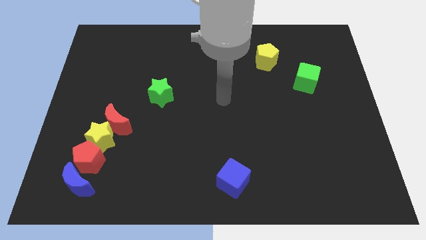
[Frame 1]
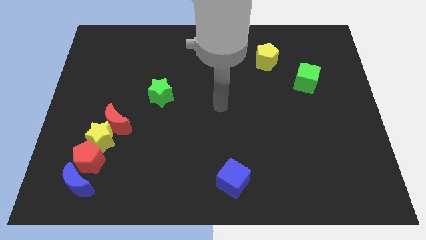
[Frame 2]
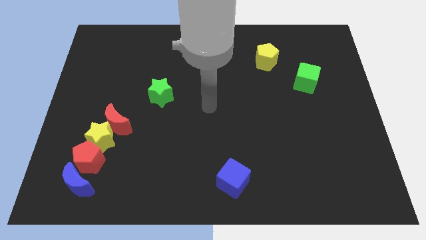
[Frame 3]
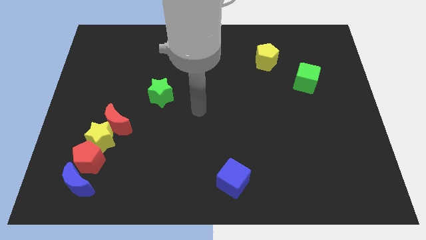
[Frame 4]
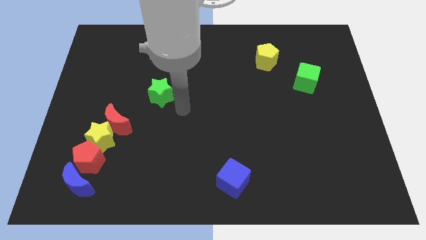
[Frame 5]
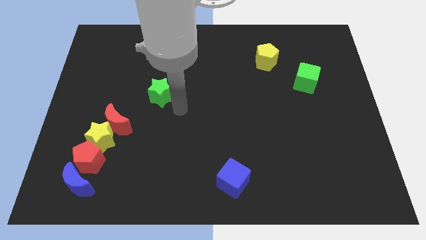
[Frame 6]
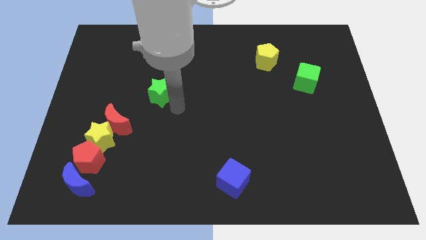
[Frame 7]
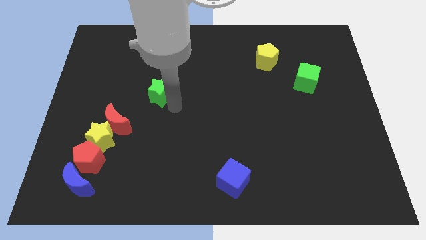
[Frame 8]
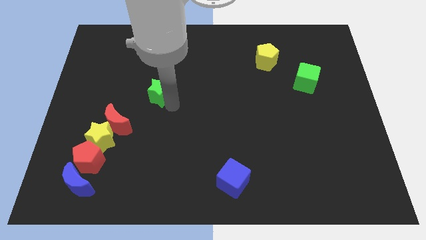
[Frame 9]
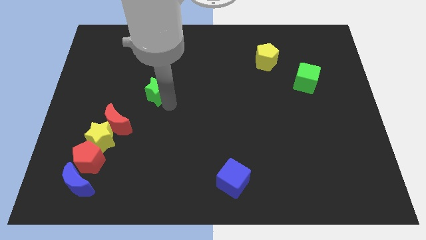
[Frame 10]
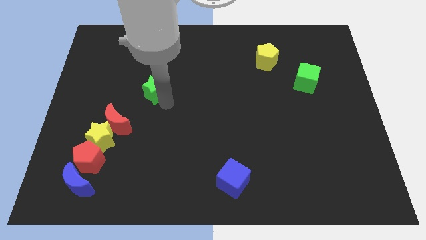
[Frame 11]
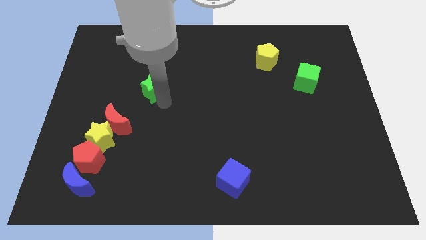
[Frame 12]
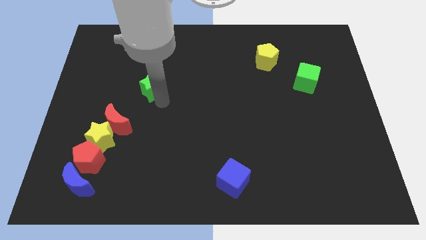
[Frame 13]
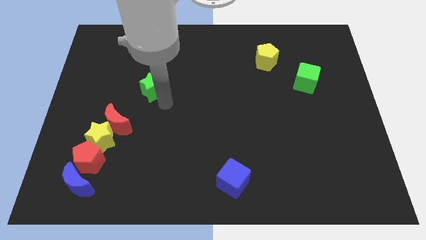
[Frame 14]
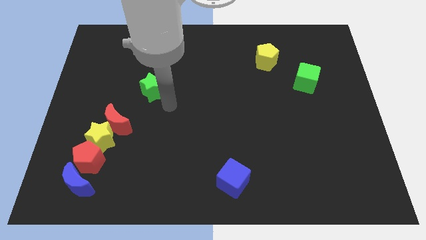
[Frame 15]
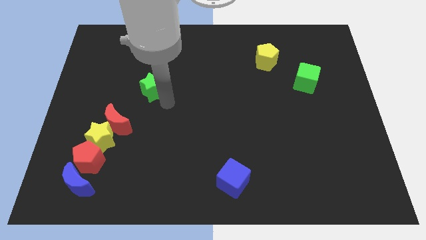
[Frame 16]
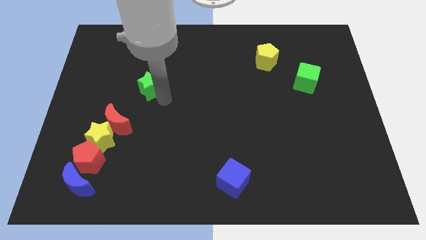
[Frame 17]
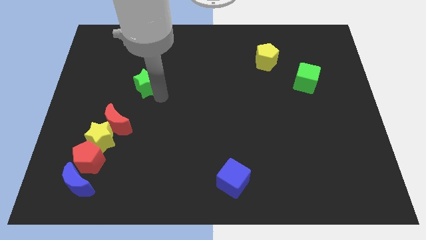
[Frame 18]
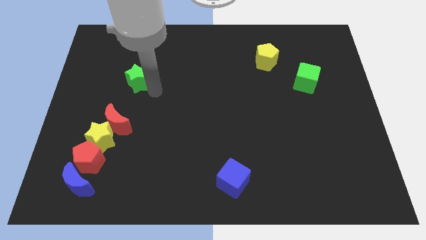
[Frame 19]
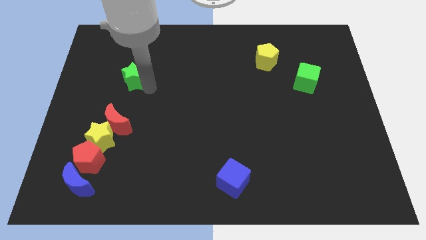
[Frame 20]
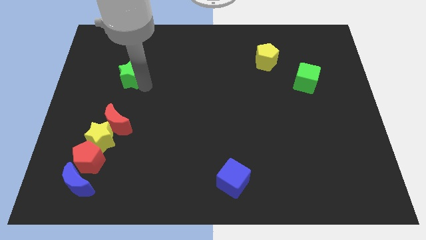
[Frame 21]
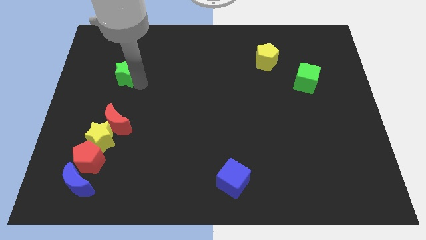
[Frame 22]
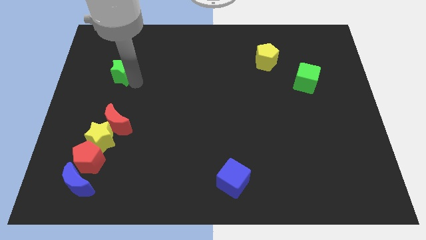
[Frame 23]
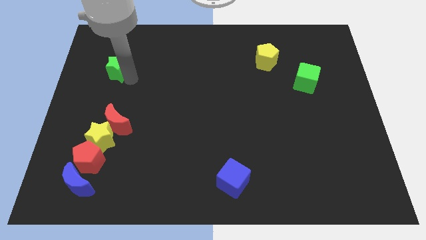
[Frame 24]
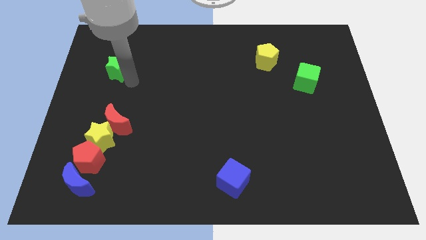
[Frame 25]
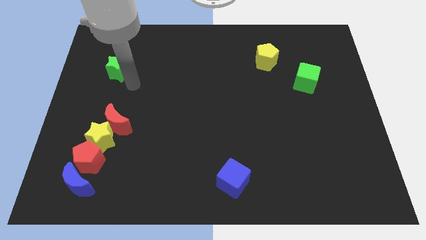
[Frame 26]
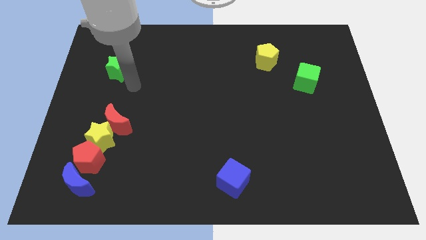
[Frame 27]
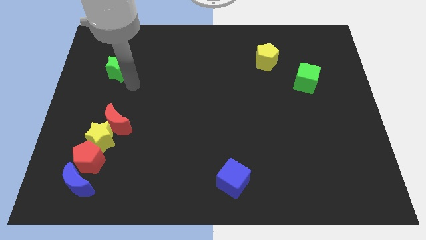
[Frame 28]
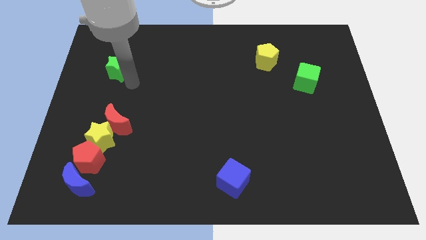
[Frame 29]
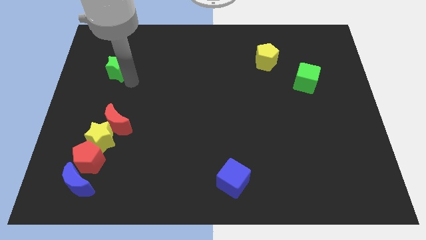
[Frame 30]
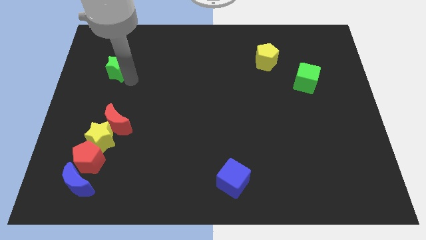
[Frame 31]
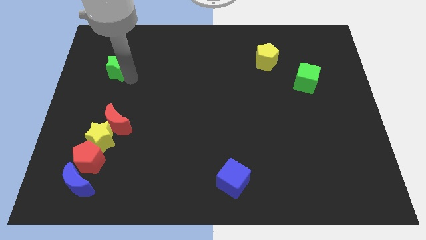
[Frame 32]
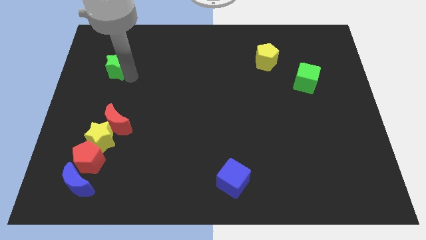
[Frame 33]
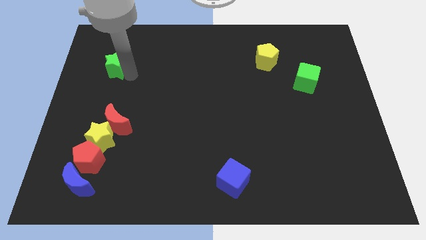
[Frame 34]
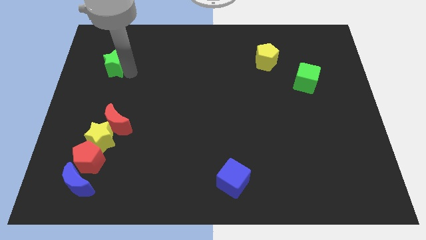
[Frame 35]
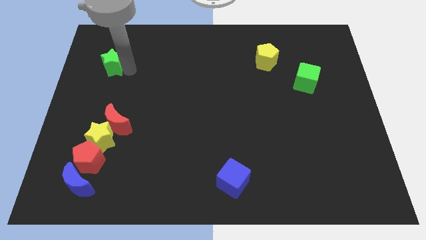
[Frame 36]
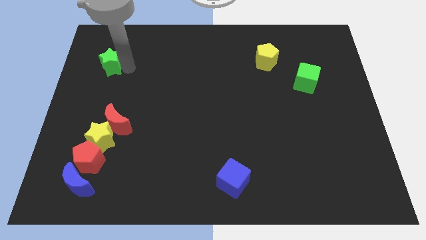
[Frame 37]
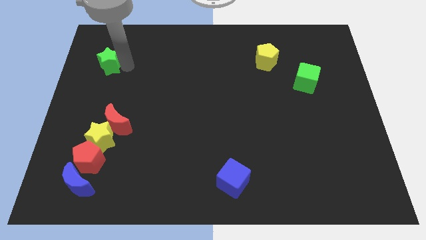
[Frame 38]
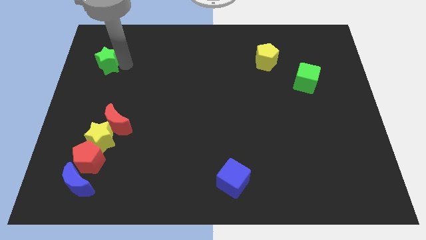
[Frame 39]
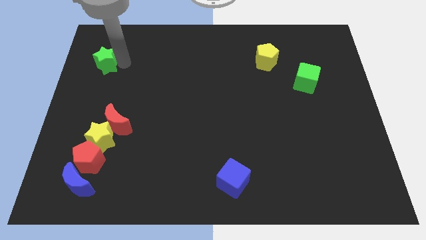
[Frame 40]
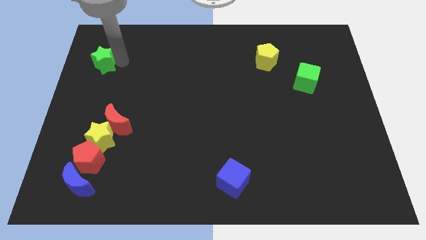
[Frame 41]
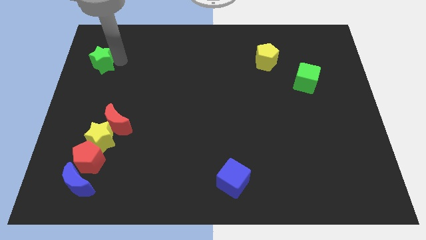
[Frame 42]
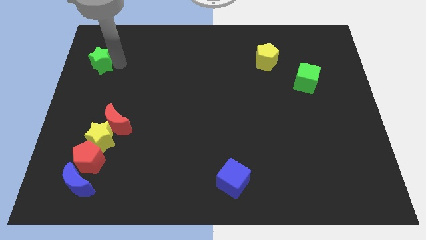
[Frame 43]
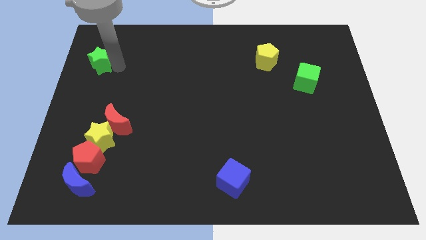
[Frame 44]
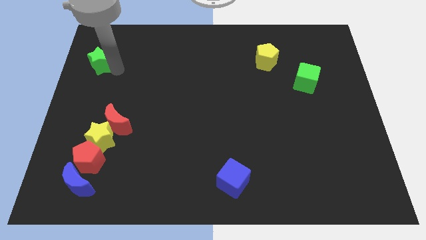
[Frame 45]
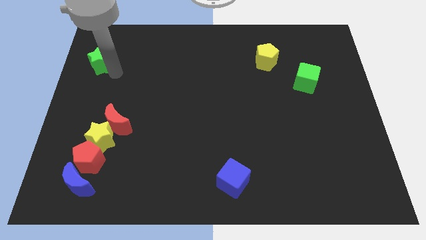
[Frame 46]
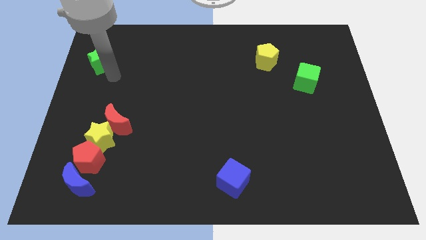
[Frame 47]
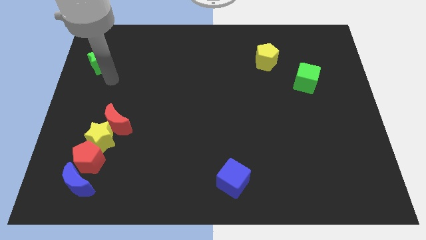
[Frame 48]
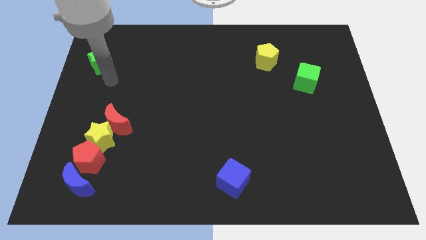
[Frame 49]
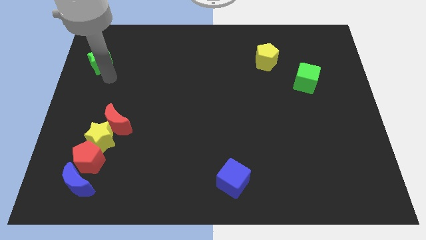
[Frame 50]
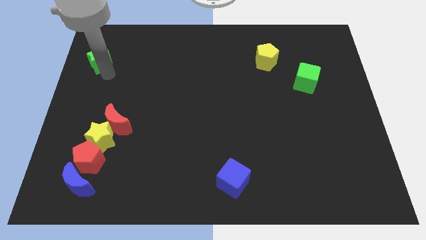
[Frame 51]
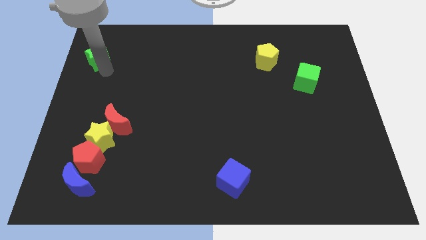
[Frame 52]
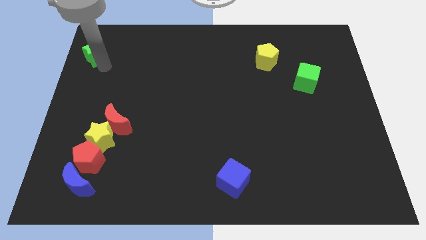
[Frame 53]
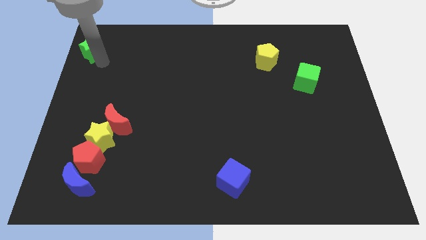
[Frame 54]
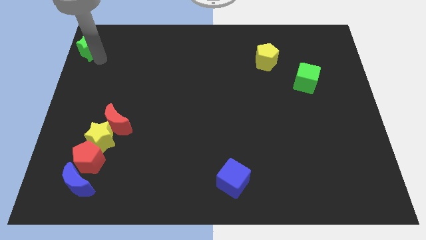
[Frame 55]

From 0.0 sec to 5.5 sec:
slide the green star to the top left of the board

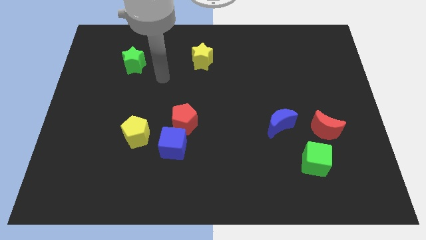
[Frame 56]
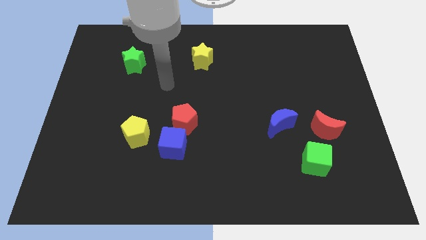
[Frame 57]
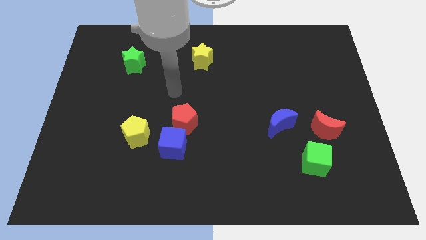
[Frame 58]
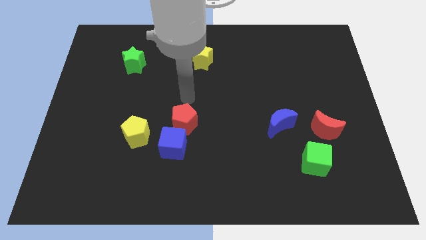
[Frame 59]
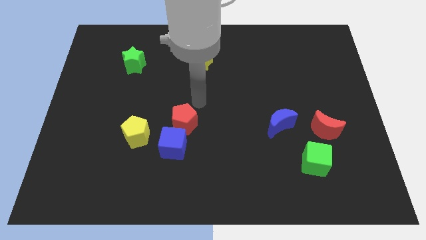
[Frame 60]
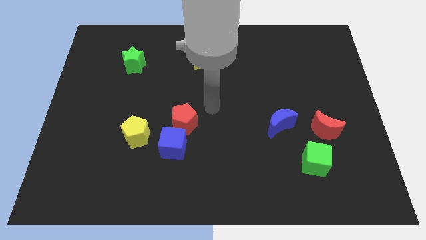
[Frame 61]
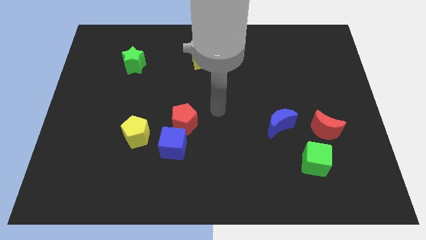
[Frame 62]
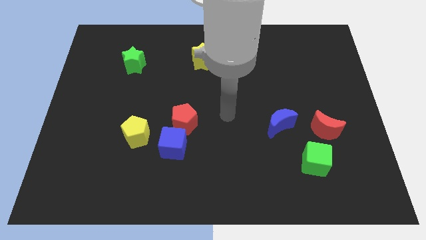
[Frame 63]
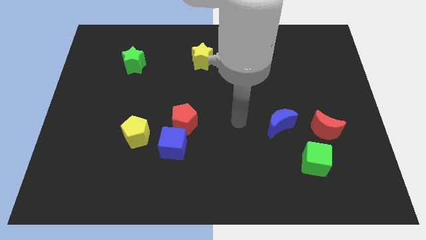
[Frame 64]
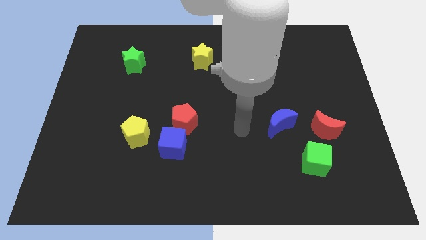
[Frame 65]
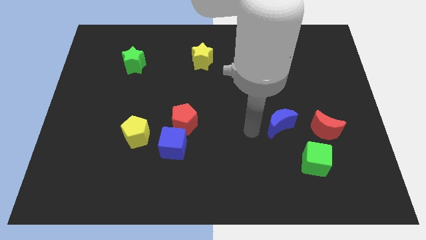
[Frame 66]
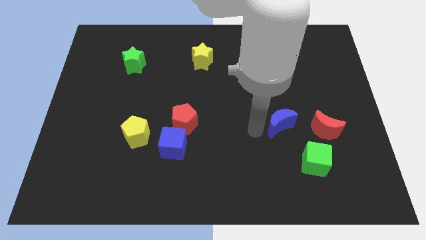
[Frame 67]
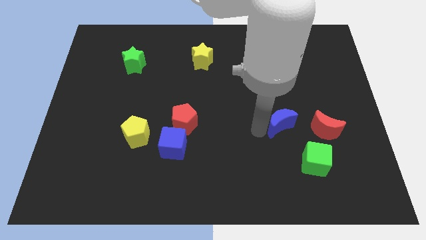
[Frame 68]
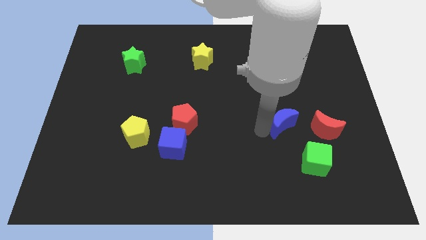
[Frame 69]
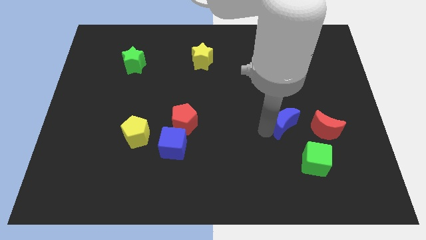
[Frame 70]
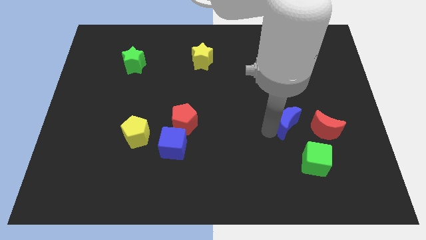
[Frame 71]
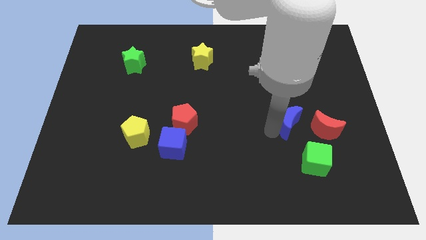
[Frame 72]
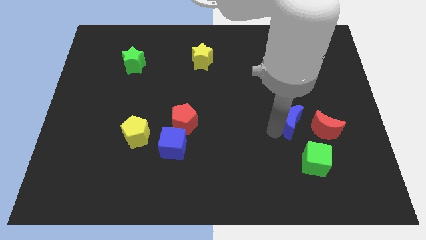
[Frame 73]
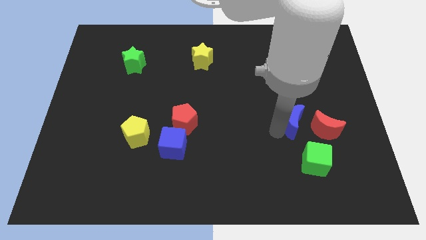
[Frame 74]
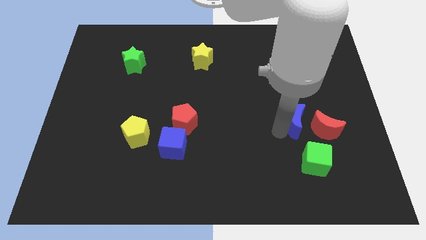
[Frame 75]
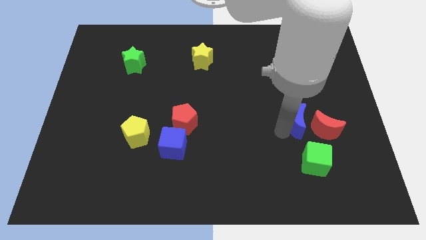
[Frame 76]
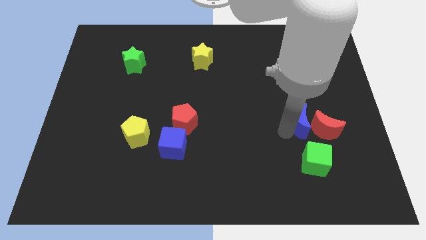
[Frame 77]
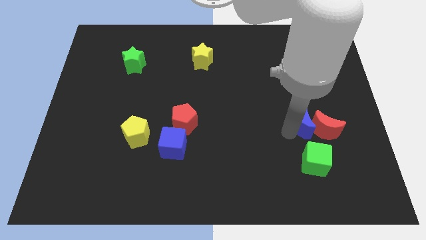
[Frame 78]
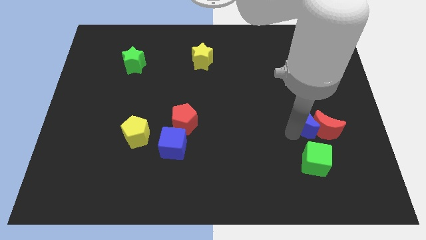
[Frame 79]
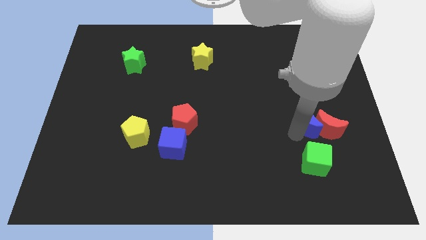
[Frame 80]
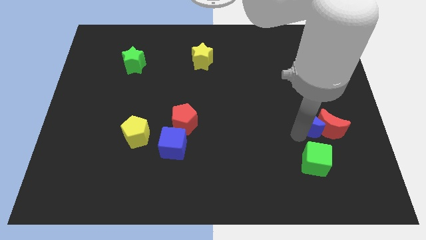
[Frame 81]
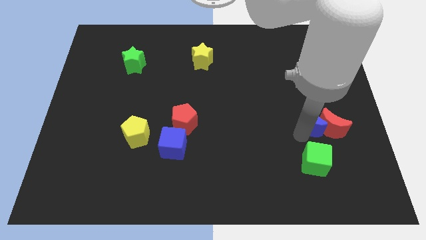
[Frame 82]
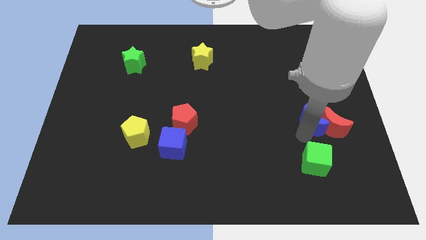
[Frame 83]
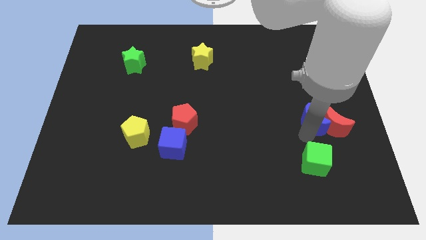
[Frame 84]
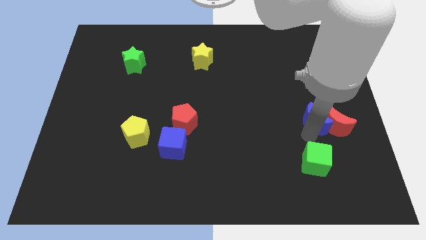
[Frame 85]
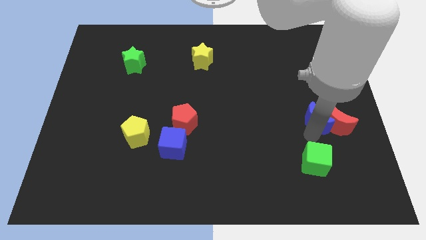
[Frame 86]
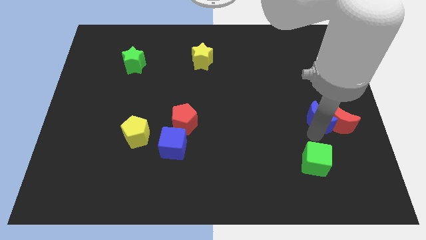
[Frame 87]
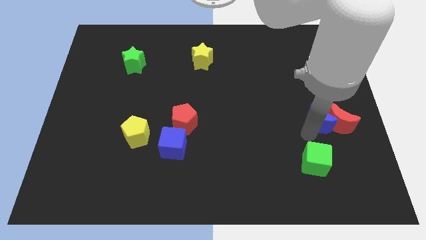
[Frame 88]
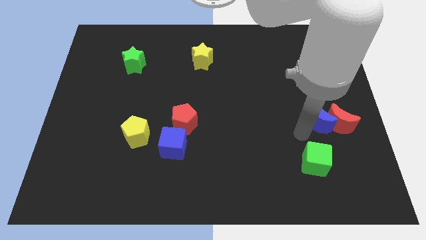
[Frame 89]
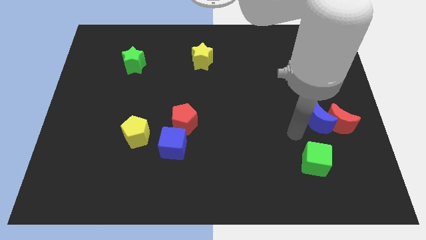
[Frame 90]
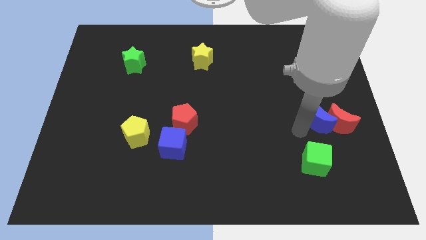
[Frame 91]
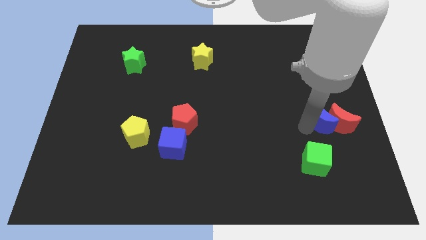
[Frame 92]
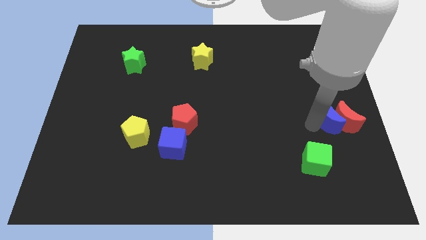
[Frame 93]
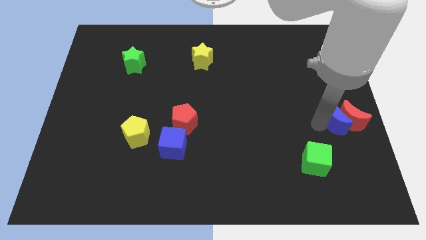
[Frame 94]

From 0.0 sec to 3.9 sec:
push the blue moon to the right side of the board
